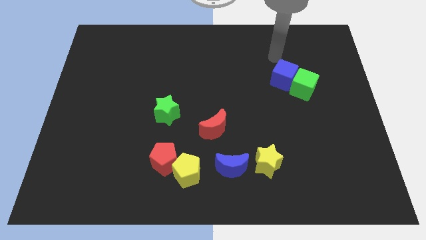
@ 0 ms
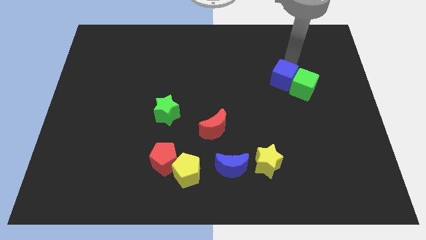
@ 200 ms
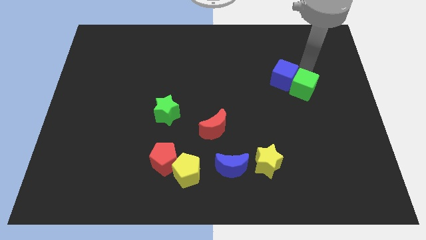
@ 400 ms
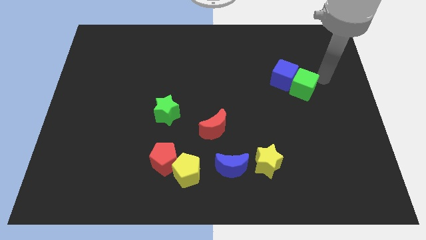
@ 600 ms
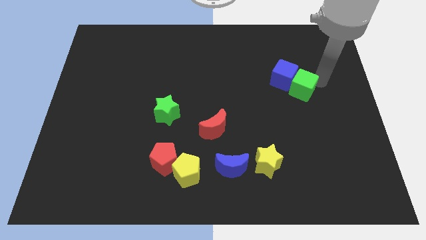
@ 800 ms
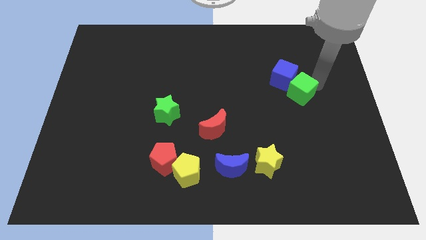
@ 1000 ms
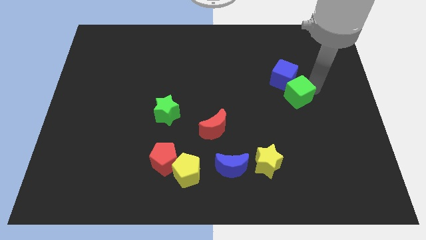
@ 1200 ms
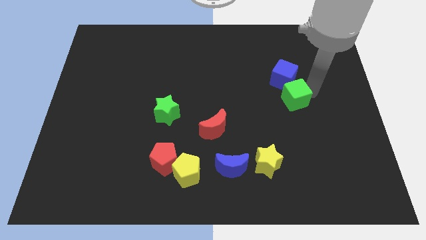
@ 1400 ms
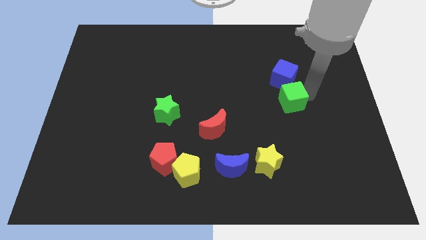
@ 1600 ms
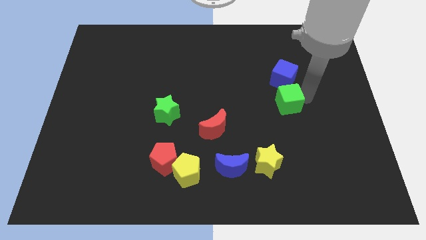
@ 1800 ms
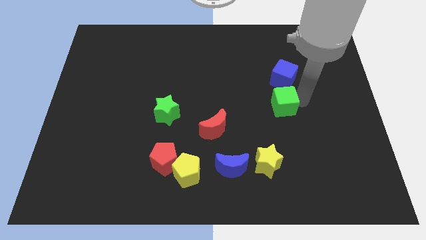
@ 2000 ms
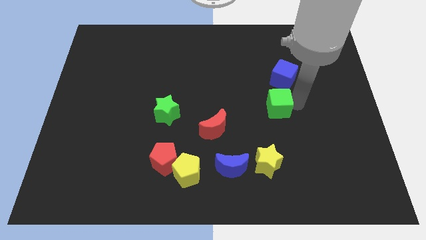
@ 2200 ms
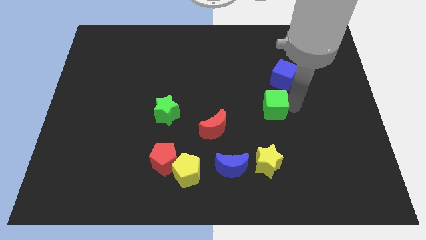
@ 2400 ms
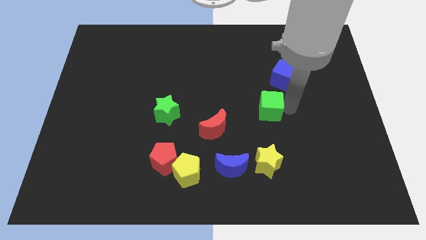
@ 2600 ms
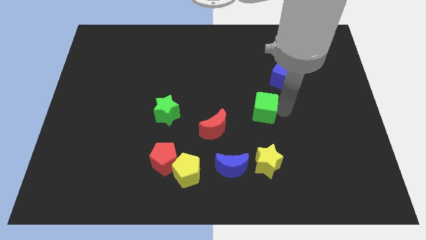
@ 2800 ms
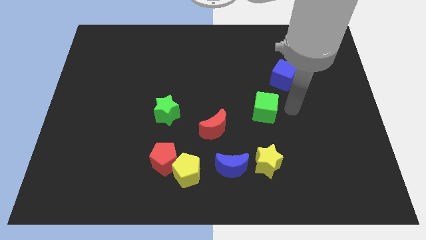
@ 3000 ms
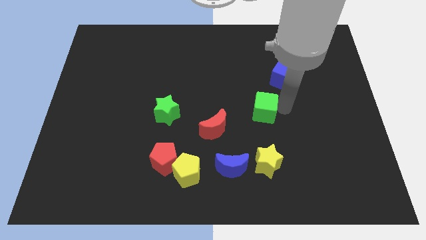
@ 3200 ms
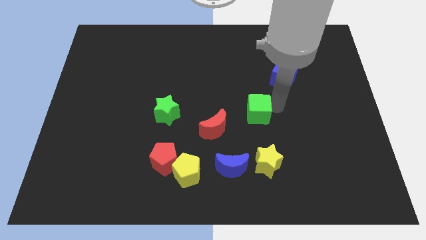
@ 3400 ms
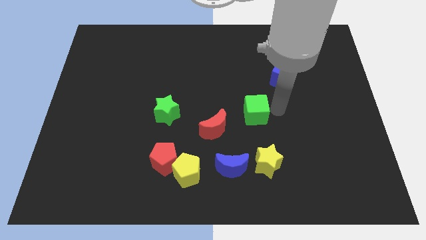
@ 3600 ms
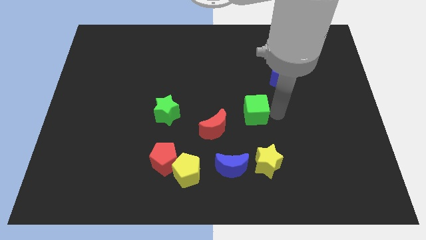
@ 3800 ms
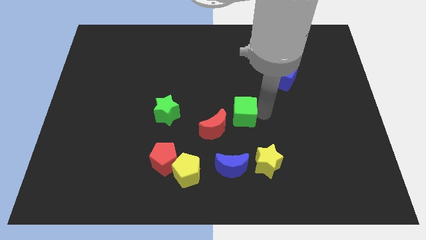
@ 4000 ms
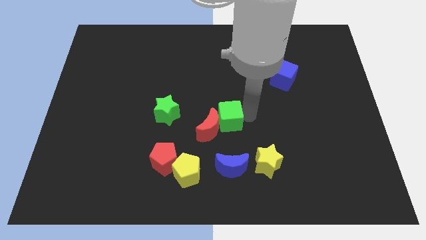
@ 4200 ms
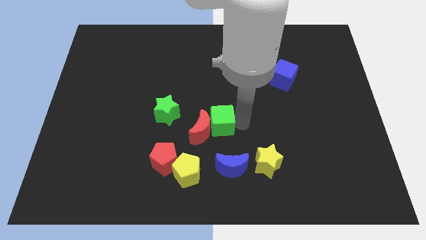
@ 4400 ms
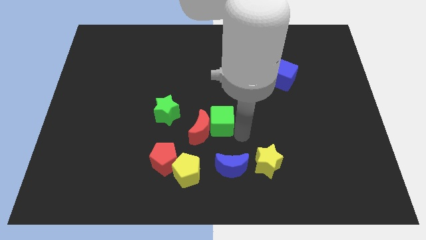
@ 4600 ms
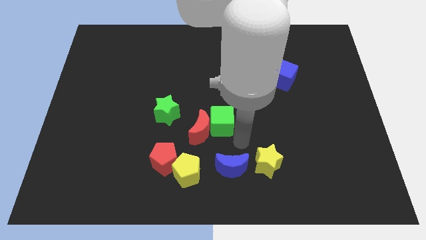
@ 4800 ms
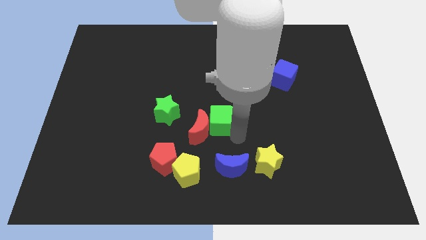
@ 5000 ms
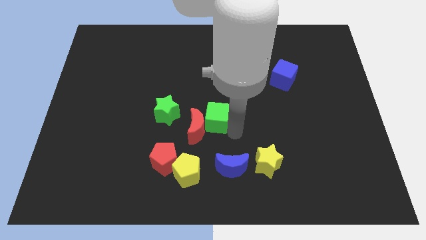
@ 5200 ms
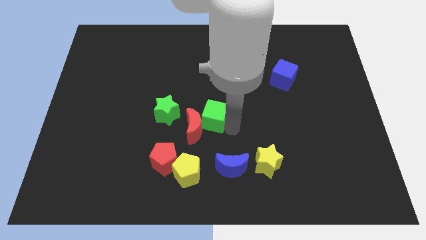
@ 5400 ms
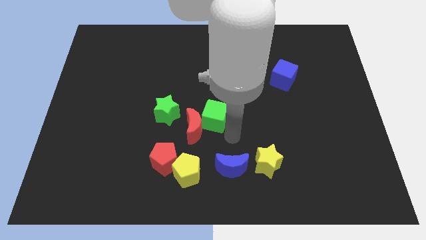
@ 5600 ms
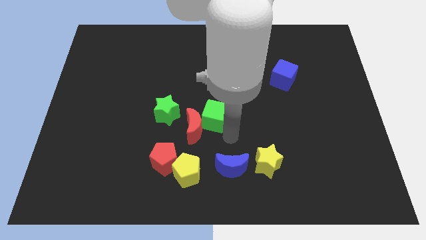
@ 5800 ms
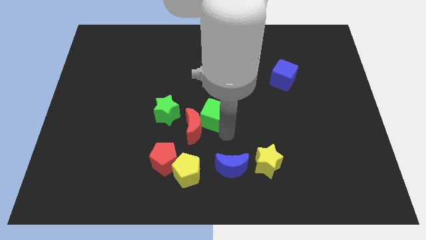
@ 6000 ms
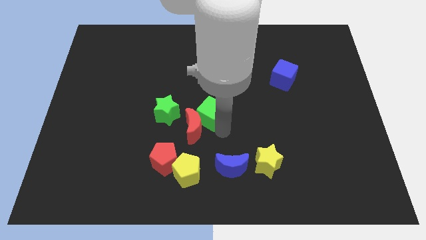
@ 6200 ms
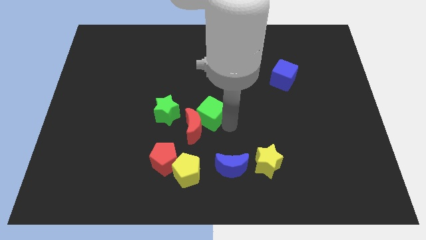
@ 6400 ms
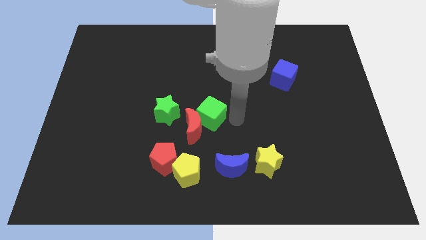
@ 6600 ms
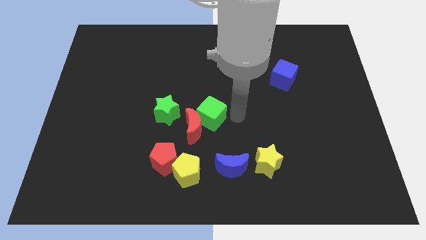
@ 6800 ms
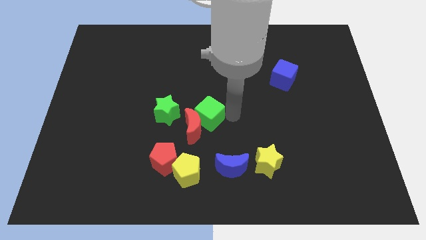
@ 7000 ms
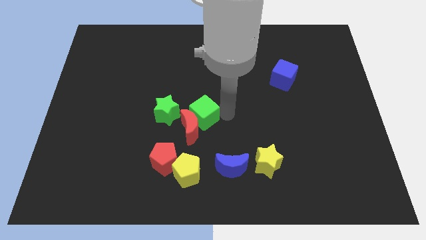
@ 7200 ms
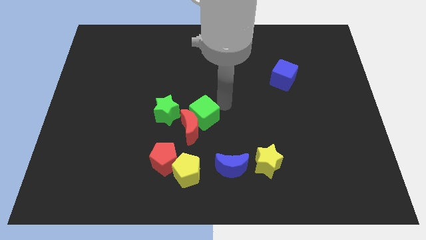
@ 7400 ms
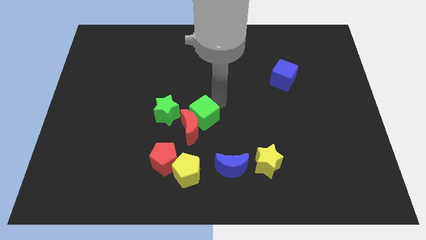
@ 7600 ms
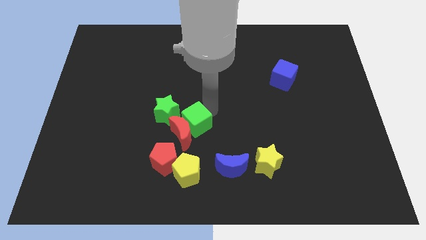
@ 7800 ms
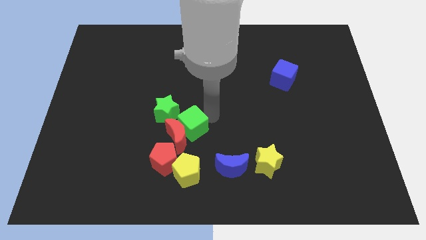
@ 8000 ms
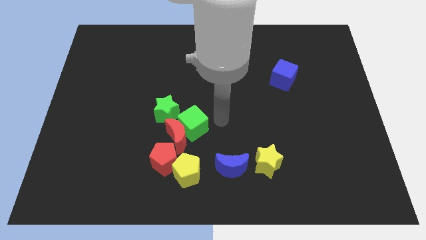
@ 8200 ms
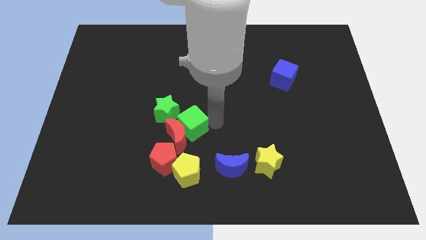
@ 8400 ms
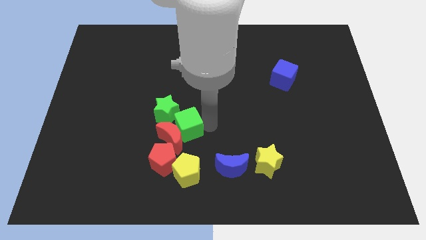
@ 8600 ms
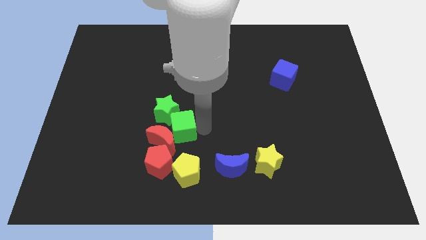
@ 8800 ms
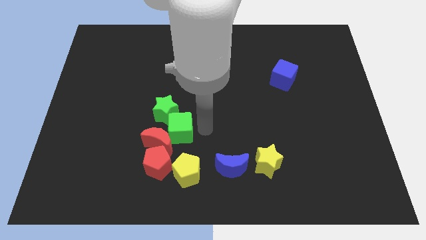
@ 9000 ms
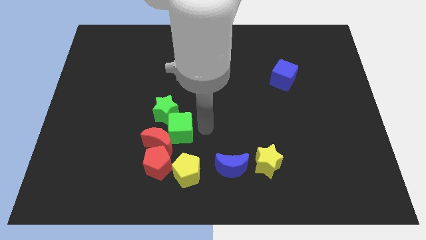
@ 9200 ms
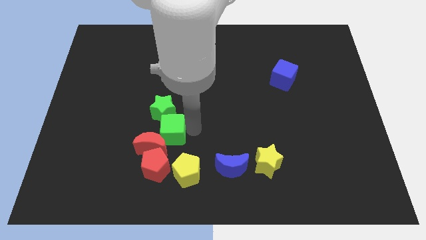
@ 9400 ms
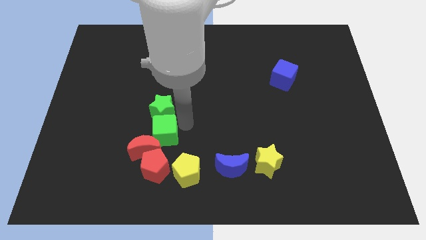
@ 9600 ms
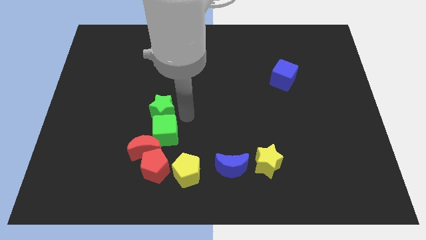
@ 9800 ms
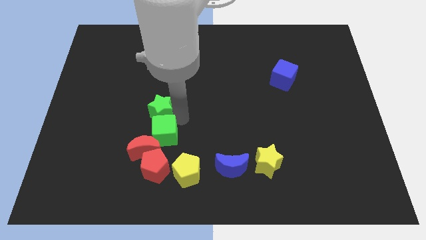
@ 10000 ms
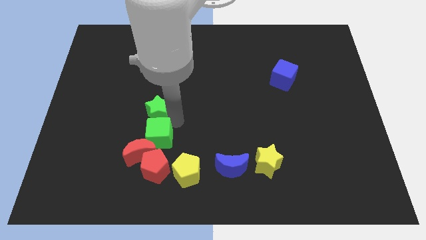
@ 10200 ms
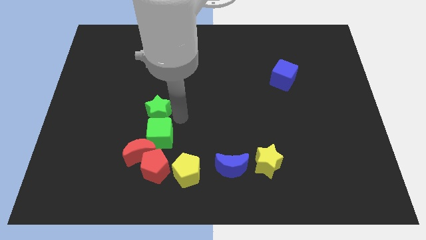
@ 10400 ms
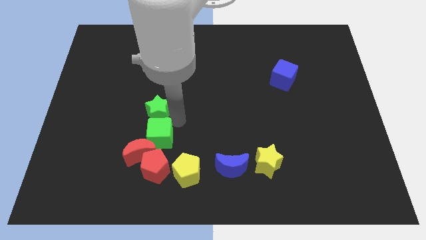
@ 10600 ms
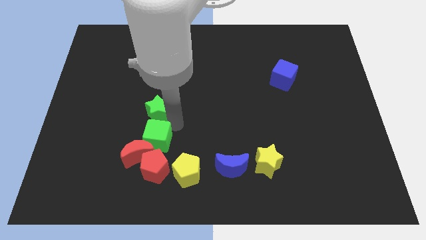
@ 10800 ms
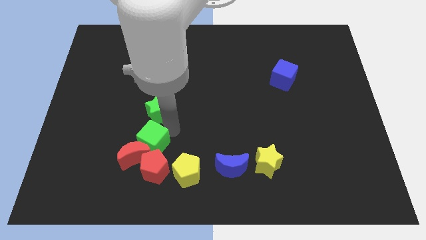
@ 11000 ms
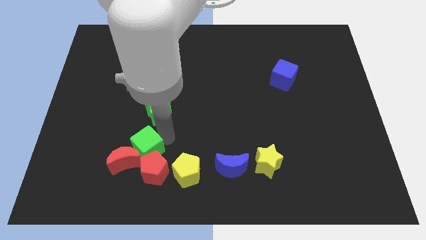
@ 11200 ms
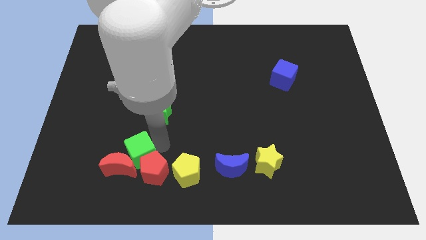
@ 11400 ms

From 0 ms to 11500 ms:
slide the green cube just left of the red pentagon

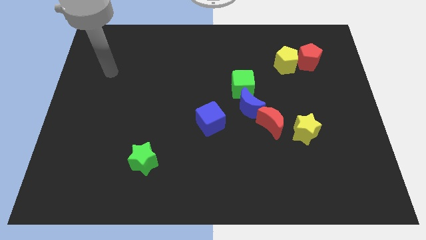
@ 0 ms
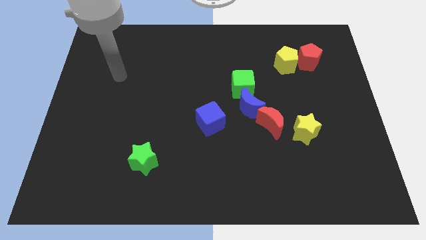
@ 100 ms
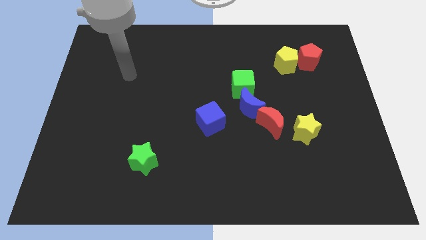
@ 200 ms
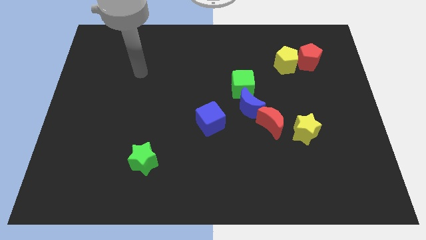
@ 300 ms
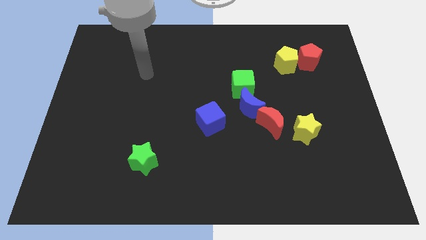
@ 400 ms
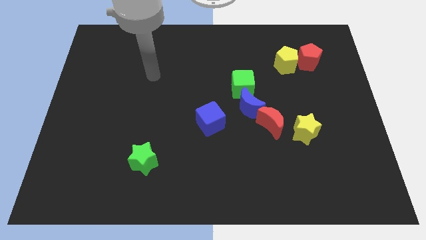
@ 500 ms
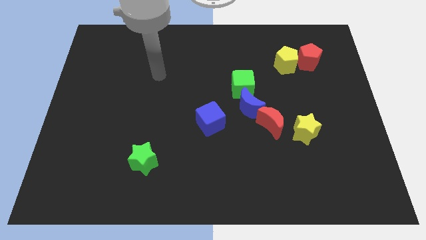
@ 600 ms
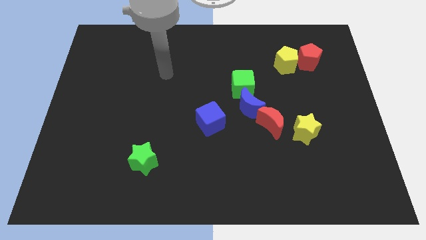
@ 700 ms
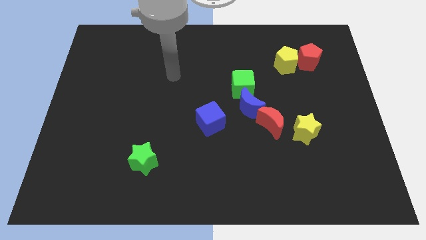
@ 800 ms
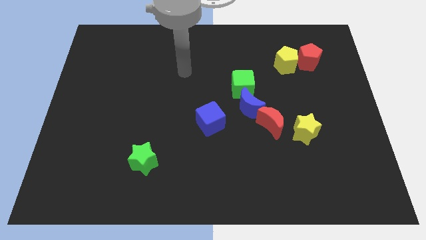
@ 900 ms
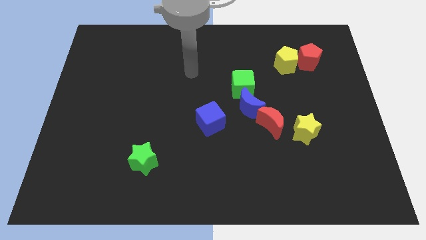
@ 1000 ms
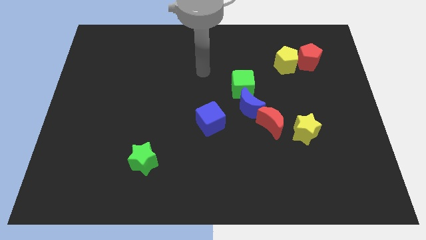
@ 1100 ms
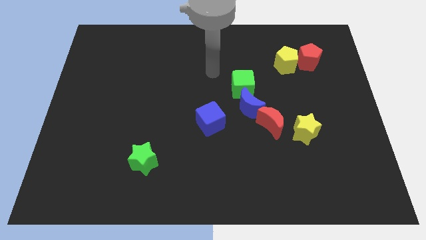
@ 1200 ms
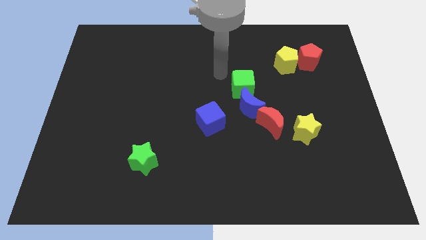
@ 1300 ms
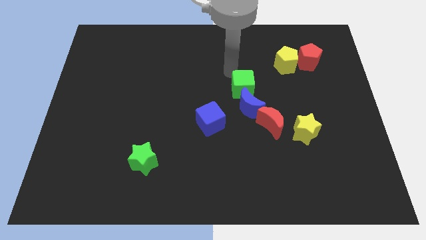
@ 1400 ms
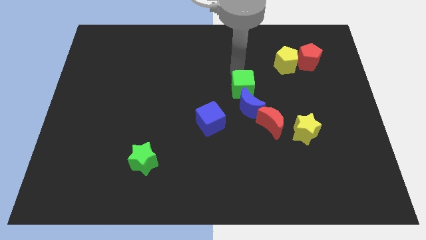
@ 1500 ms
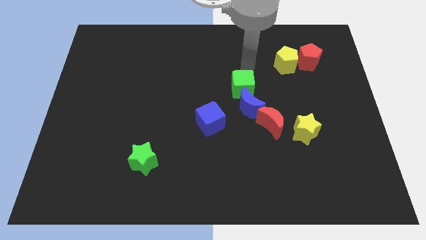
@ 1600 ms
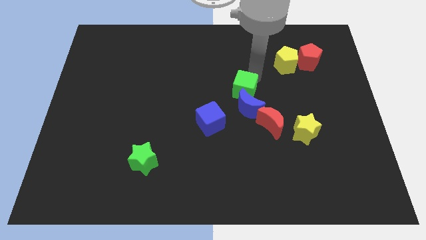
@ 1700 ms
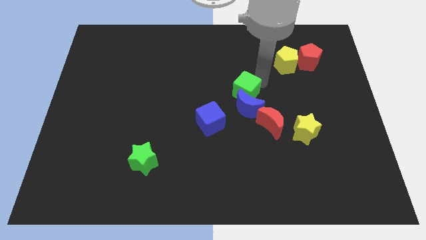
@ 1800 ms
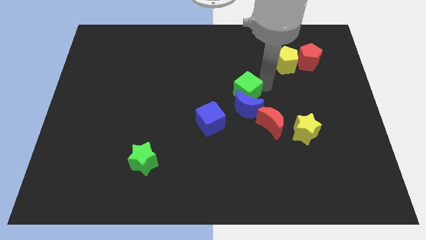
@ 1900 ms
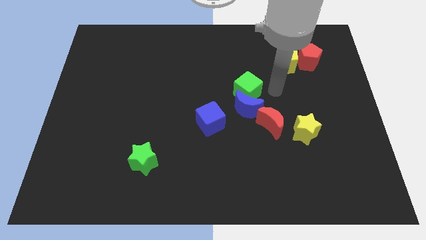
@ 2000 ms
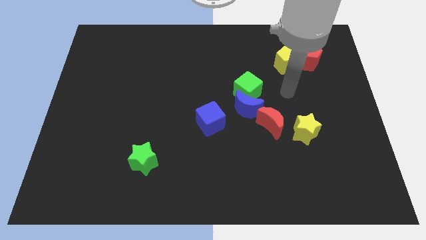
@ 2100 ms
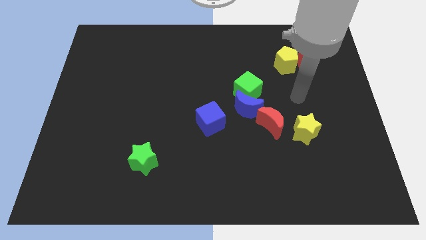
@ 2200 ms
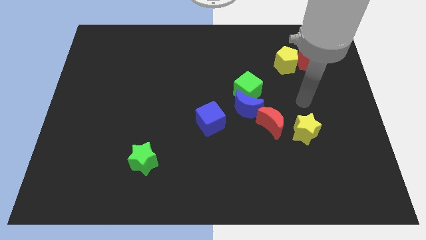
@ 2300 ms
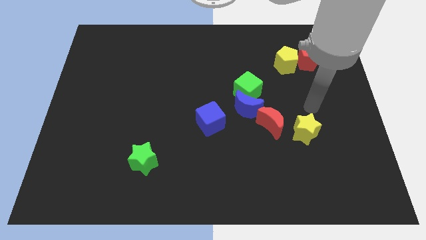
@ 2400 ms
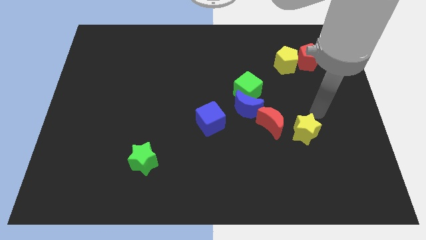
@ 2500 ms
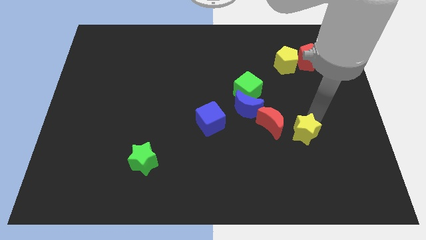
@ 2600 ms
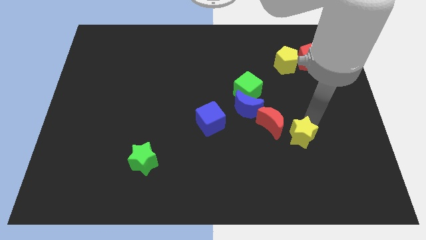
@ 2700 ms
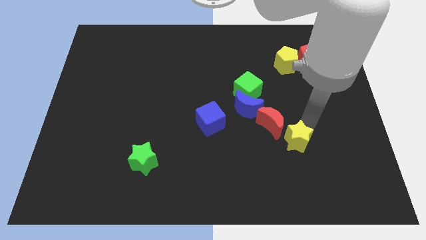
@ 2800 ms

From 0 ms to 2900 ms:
move the yellow star to the bottom side of the red moon
